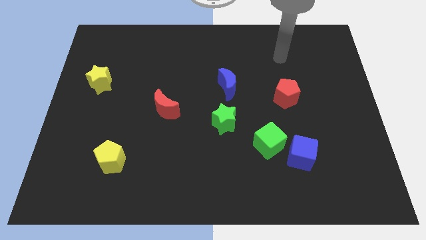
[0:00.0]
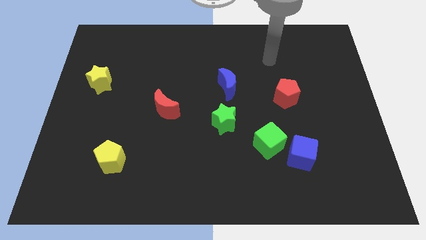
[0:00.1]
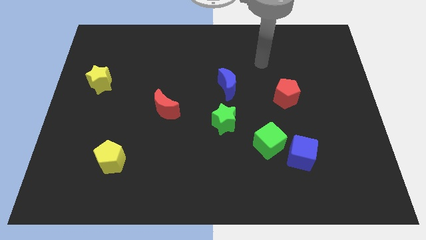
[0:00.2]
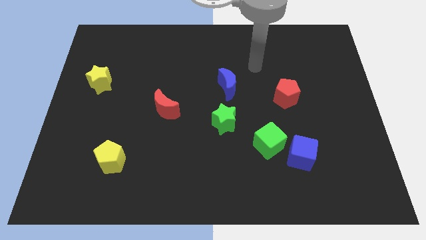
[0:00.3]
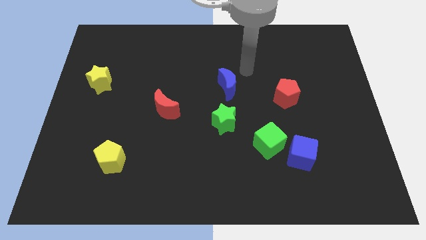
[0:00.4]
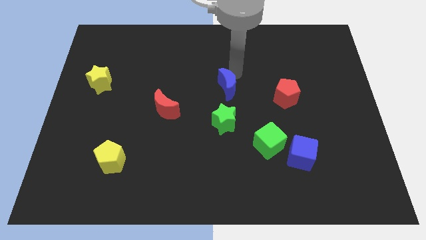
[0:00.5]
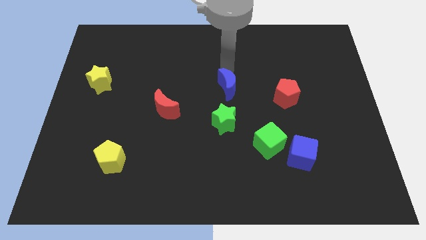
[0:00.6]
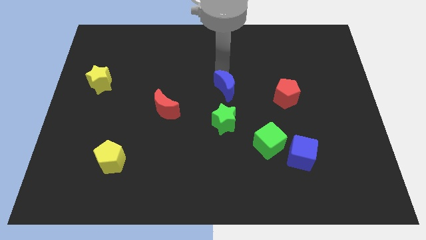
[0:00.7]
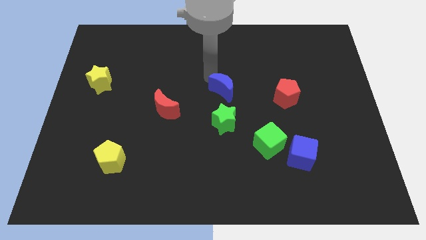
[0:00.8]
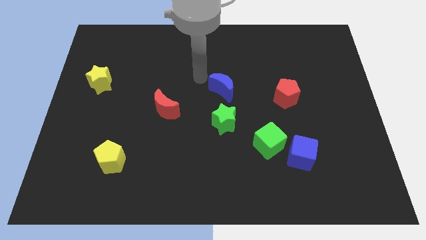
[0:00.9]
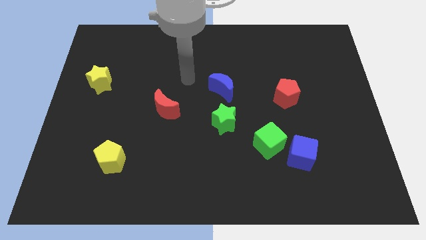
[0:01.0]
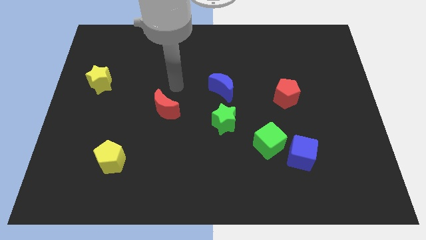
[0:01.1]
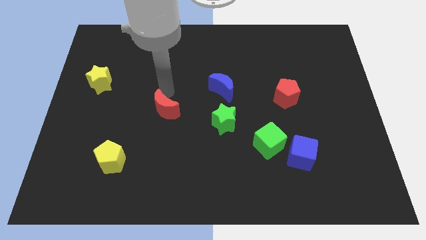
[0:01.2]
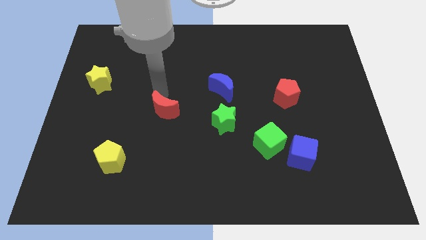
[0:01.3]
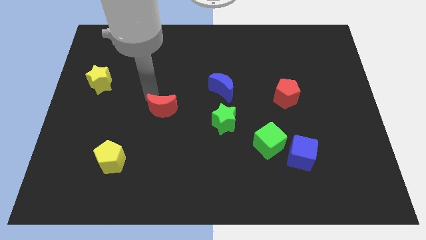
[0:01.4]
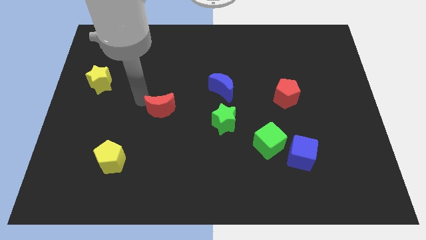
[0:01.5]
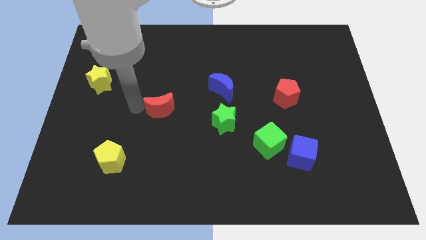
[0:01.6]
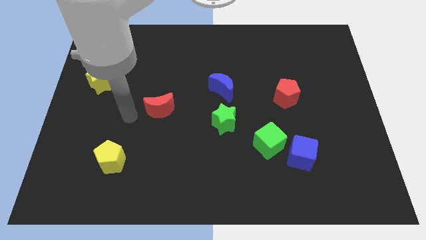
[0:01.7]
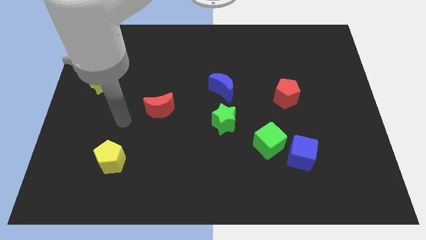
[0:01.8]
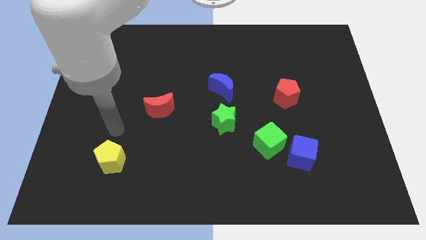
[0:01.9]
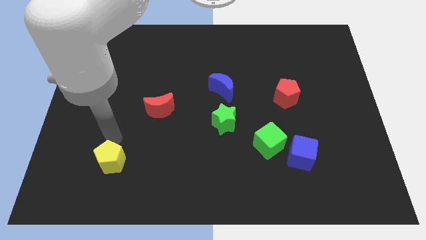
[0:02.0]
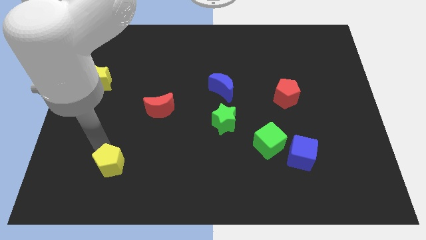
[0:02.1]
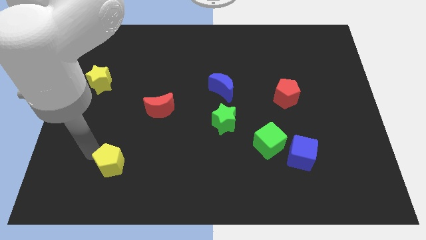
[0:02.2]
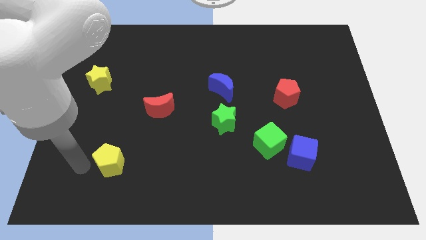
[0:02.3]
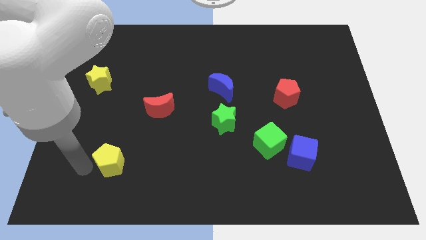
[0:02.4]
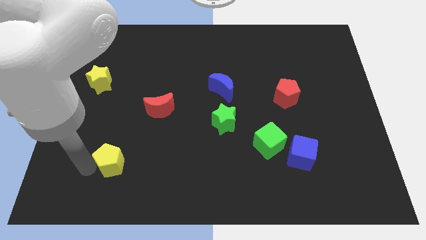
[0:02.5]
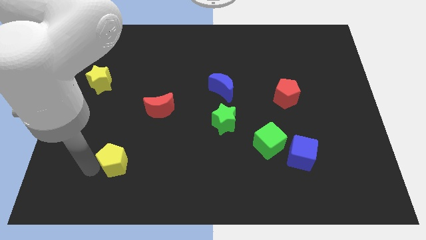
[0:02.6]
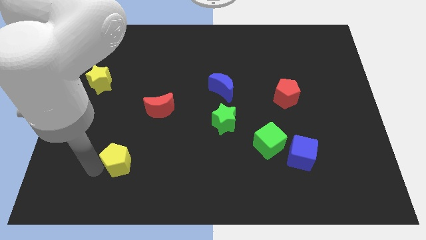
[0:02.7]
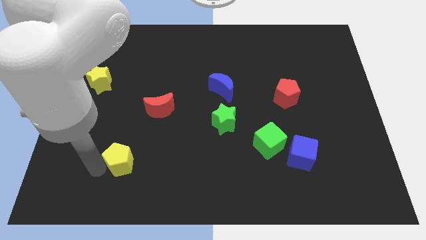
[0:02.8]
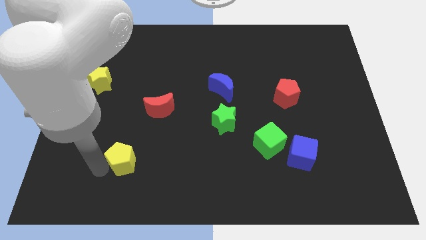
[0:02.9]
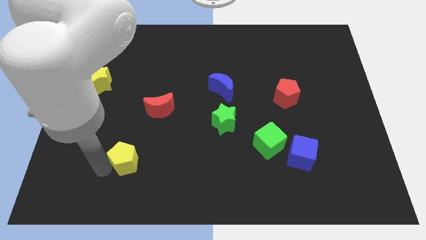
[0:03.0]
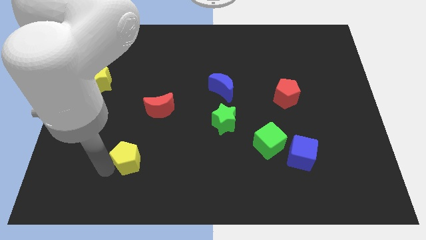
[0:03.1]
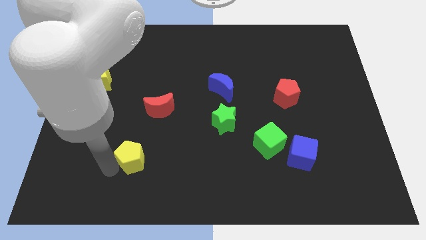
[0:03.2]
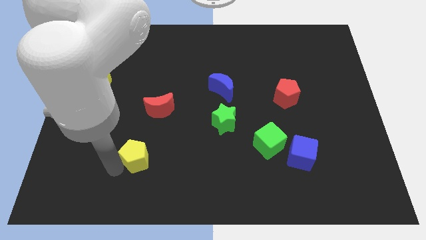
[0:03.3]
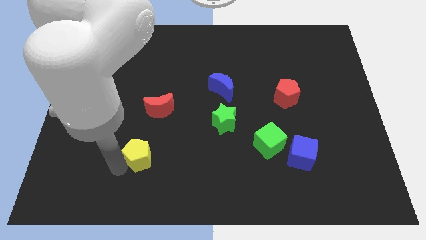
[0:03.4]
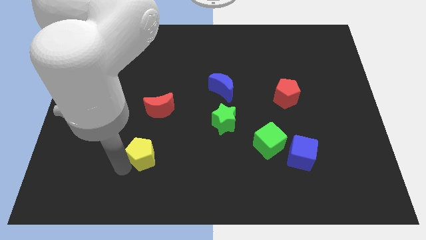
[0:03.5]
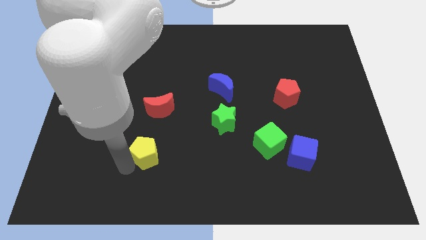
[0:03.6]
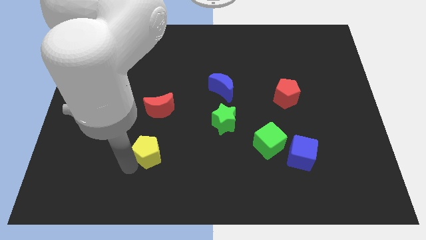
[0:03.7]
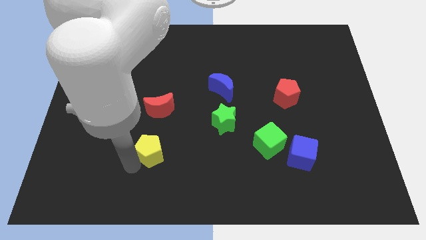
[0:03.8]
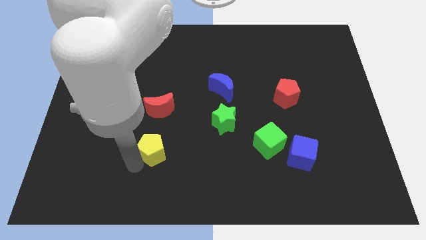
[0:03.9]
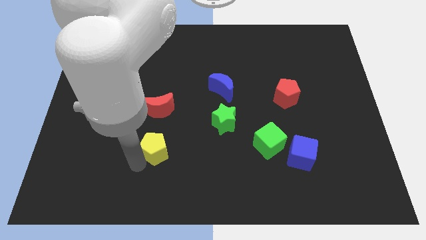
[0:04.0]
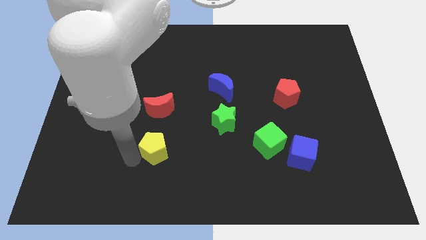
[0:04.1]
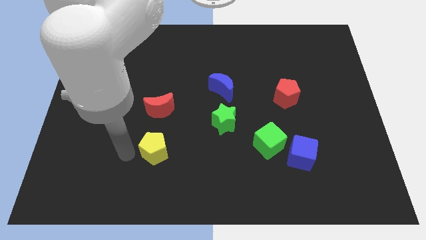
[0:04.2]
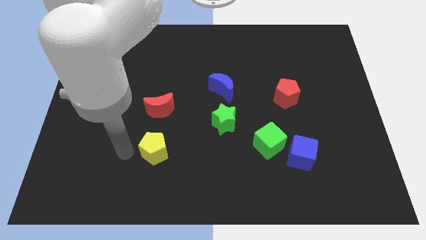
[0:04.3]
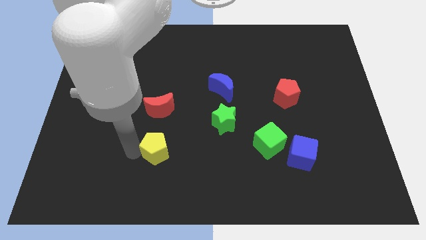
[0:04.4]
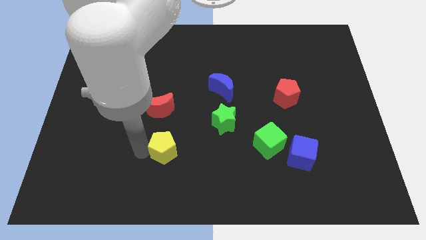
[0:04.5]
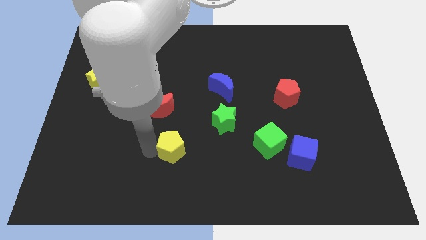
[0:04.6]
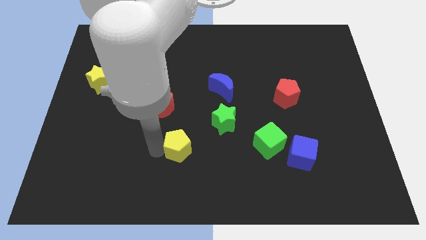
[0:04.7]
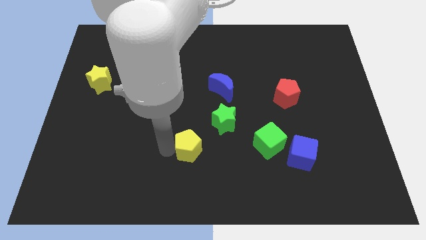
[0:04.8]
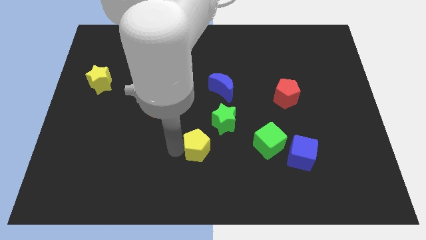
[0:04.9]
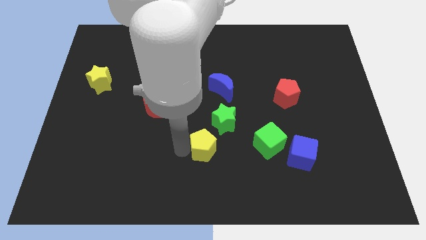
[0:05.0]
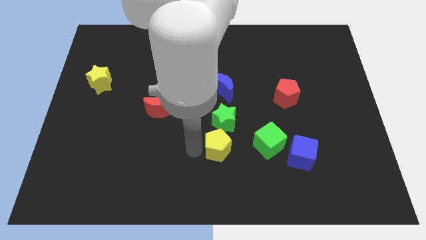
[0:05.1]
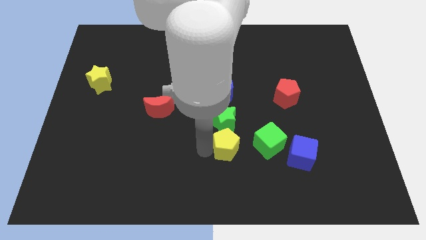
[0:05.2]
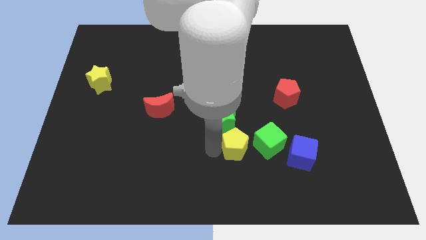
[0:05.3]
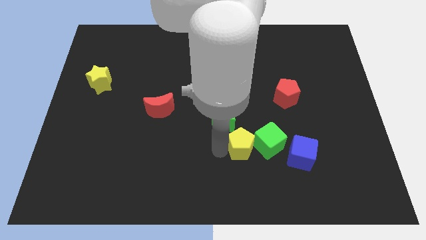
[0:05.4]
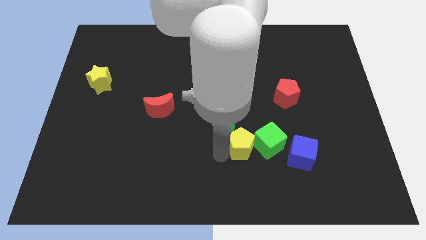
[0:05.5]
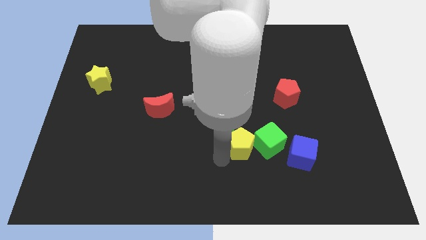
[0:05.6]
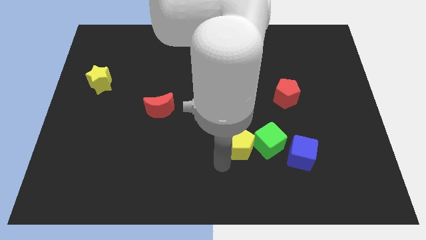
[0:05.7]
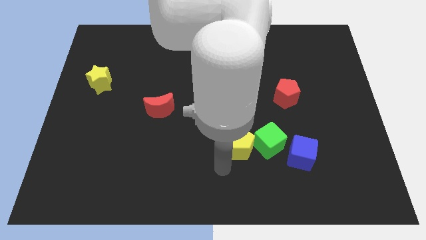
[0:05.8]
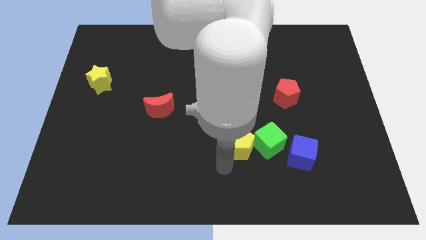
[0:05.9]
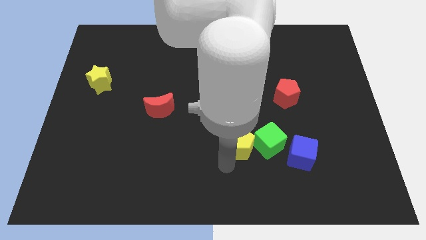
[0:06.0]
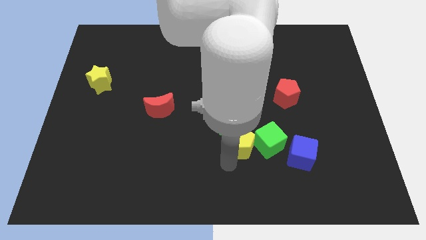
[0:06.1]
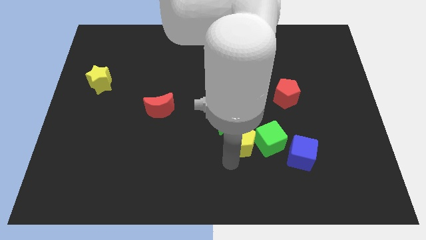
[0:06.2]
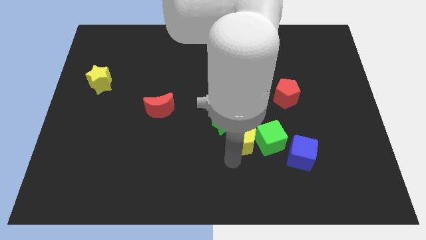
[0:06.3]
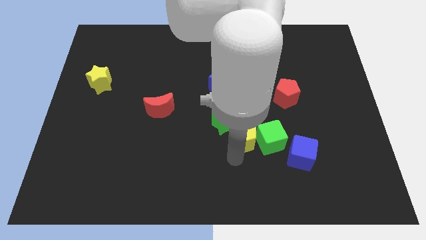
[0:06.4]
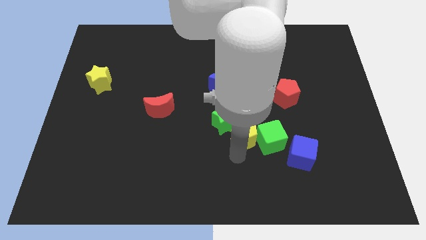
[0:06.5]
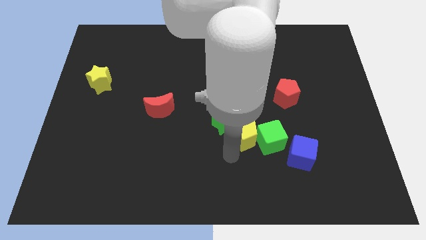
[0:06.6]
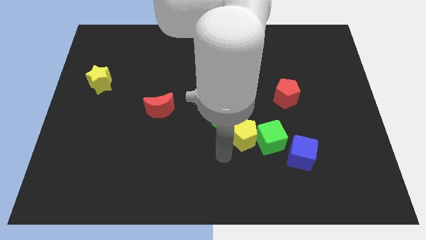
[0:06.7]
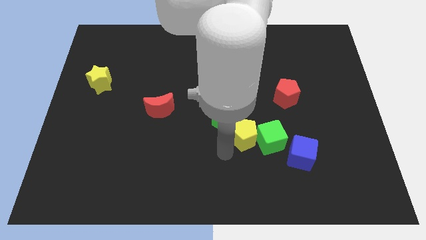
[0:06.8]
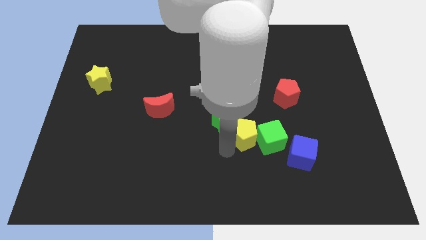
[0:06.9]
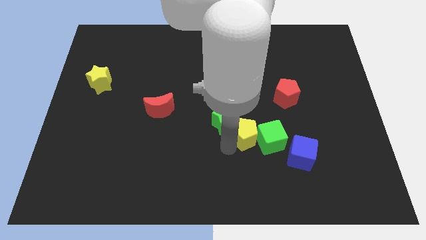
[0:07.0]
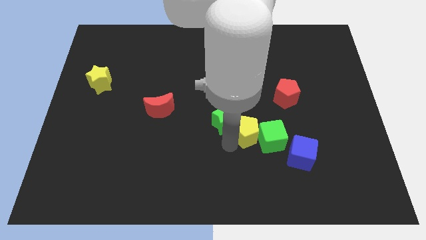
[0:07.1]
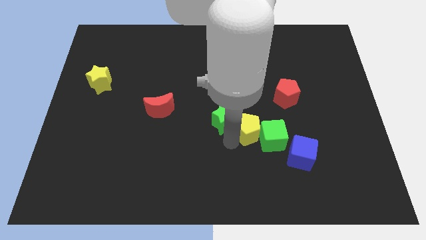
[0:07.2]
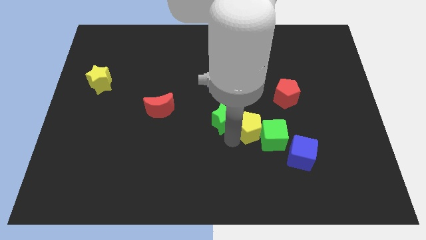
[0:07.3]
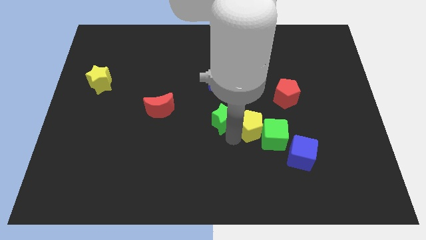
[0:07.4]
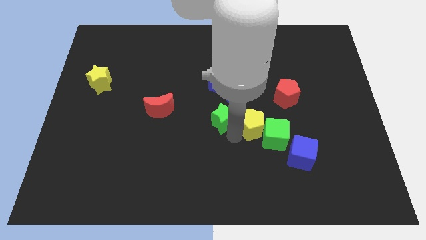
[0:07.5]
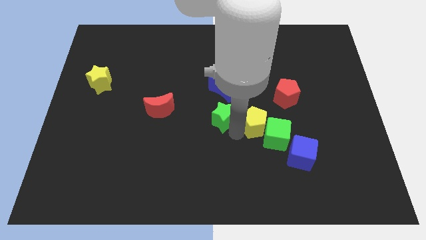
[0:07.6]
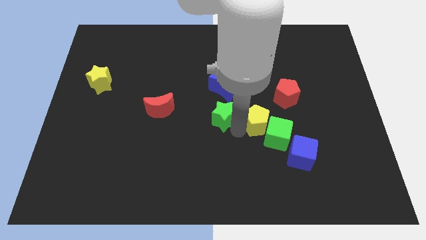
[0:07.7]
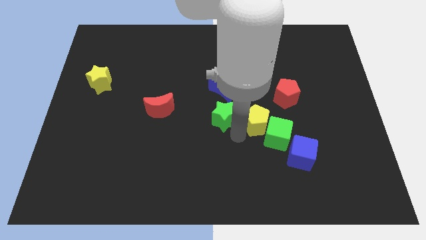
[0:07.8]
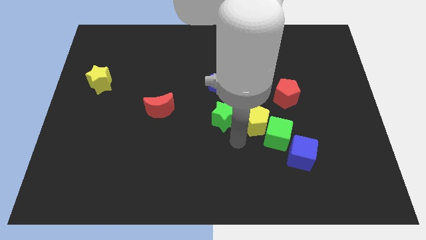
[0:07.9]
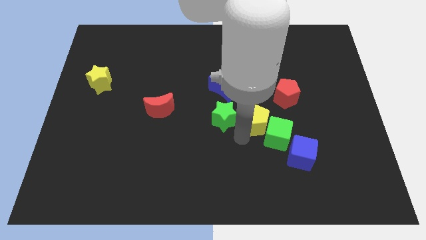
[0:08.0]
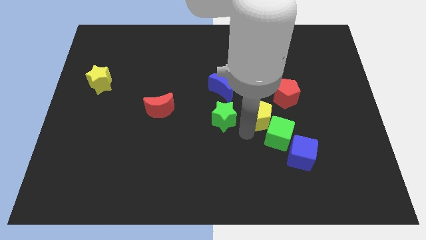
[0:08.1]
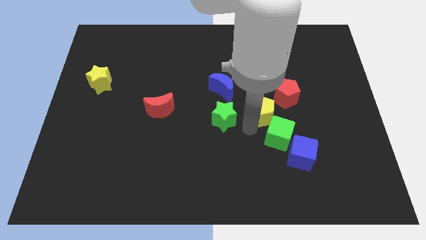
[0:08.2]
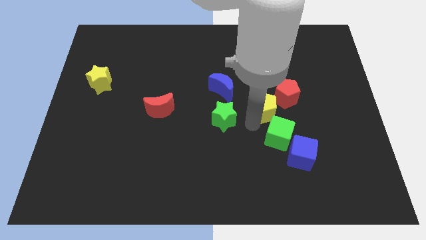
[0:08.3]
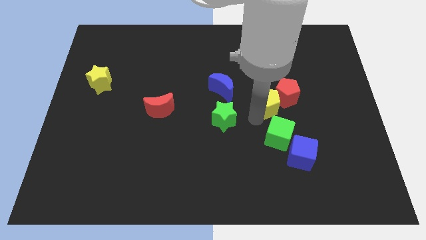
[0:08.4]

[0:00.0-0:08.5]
slide the yellow pentagon to the red pentagon
